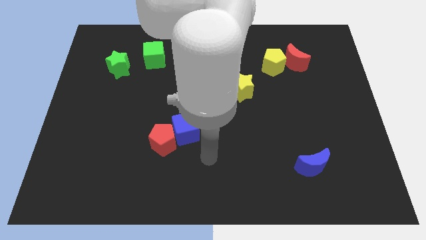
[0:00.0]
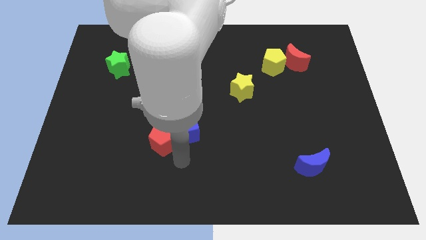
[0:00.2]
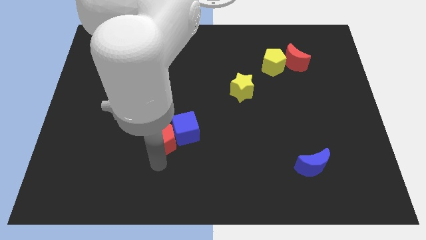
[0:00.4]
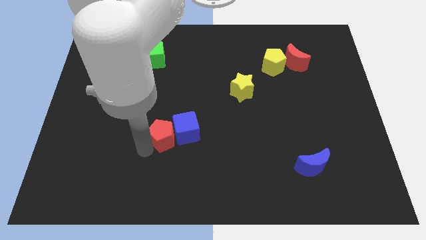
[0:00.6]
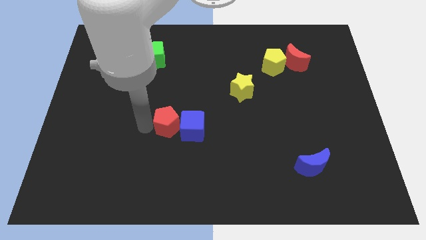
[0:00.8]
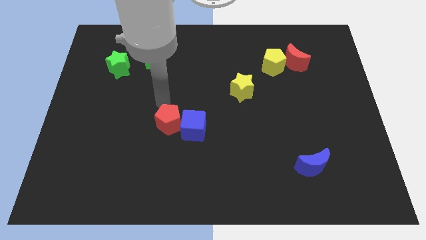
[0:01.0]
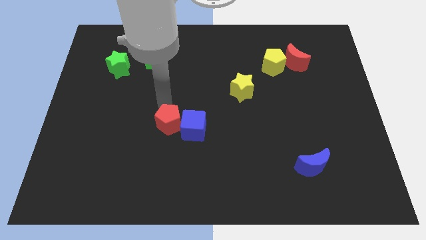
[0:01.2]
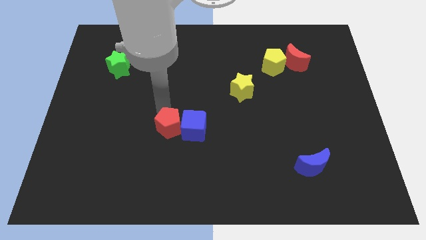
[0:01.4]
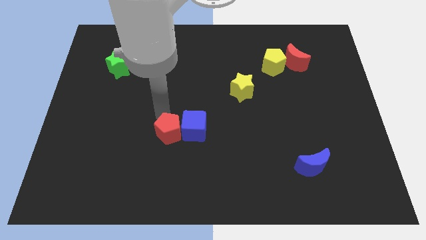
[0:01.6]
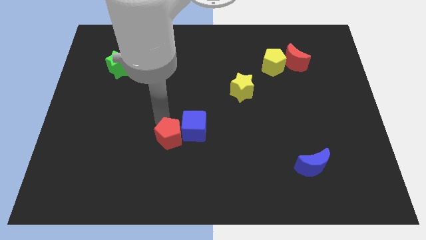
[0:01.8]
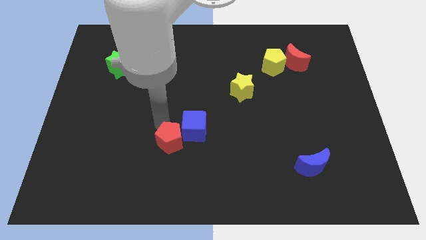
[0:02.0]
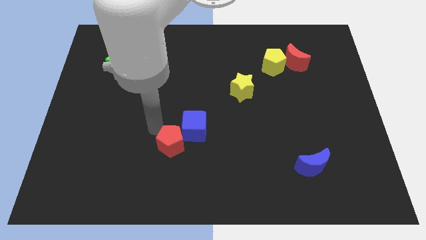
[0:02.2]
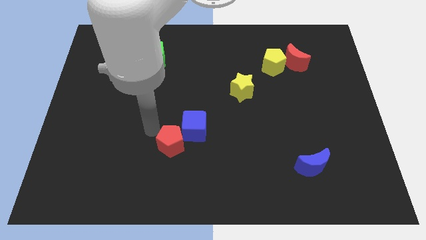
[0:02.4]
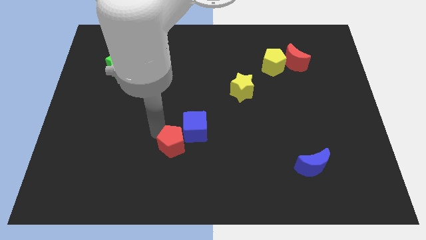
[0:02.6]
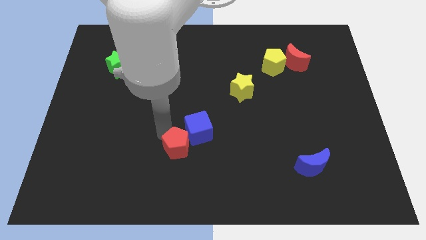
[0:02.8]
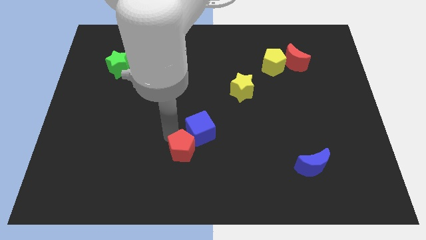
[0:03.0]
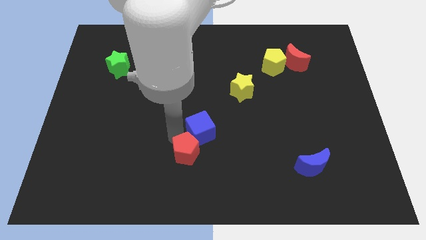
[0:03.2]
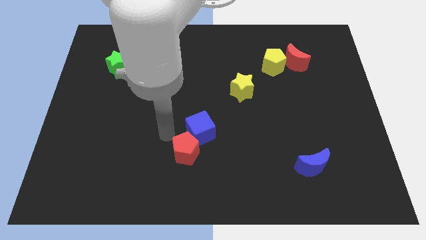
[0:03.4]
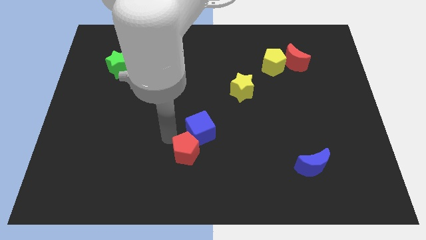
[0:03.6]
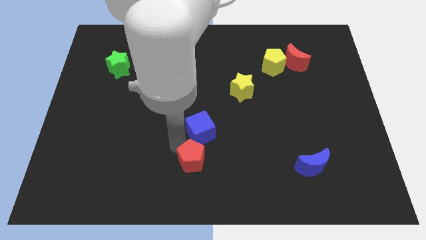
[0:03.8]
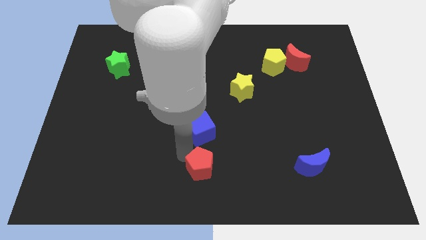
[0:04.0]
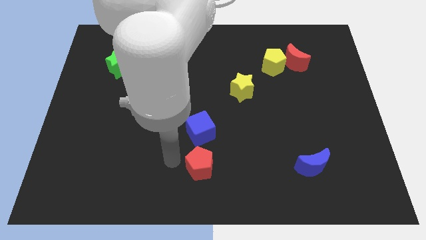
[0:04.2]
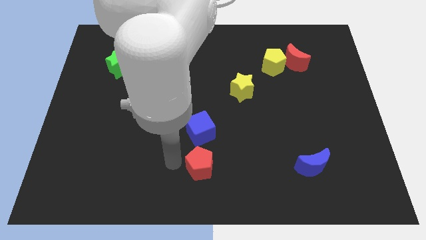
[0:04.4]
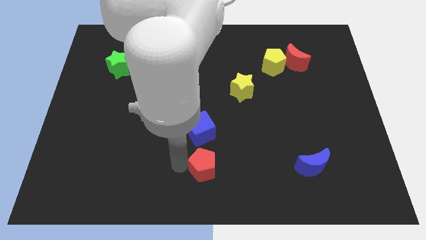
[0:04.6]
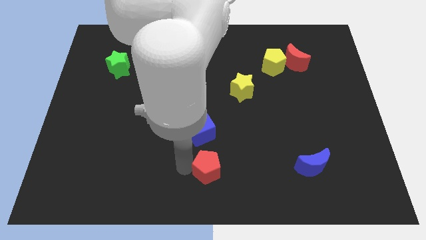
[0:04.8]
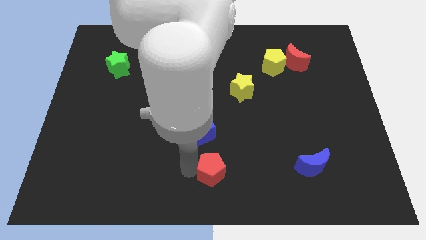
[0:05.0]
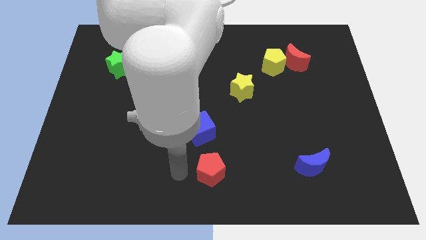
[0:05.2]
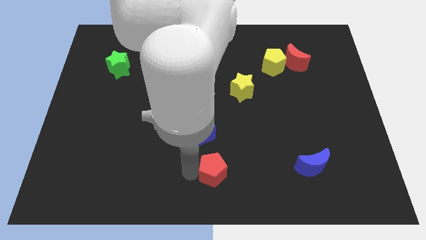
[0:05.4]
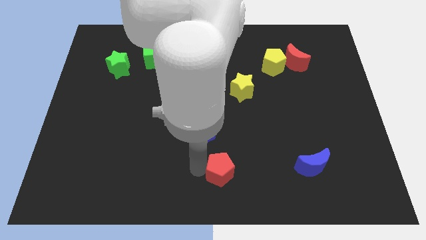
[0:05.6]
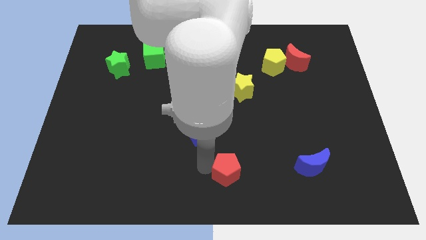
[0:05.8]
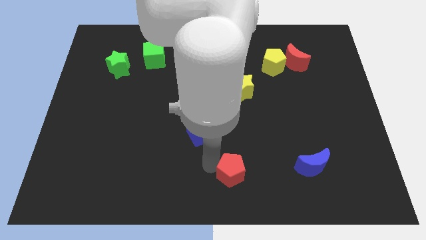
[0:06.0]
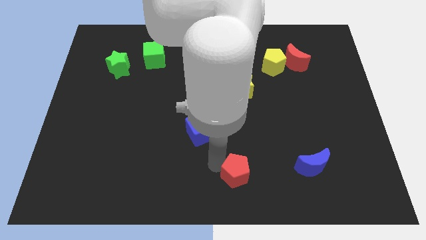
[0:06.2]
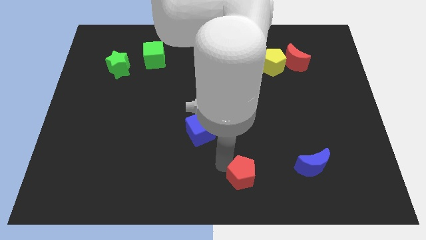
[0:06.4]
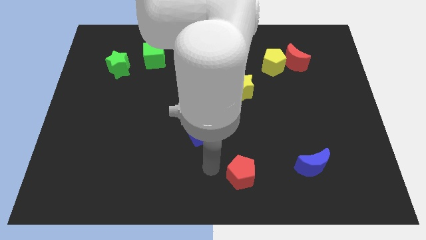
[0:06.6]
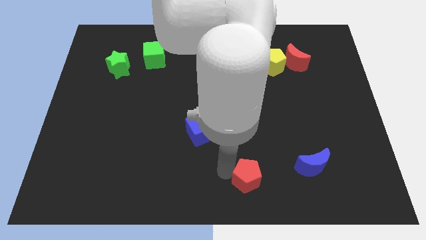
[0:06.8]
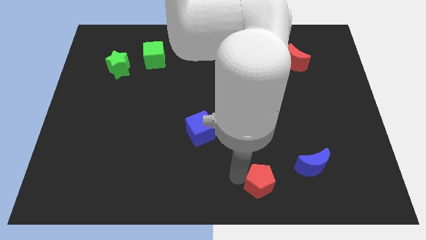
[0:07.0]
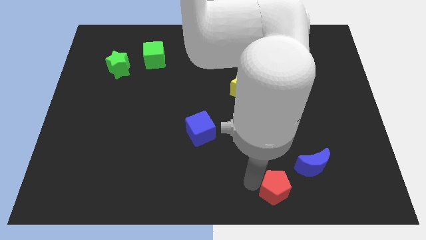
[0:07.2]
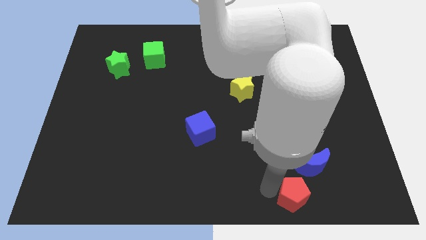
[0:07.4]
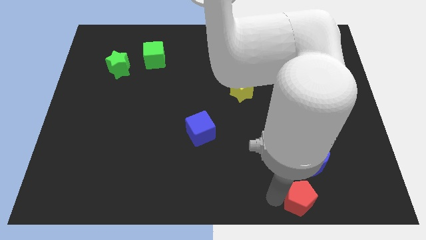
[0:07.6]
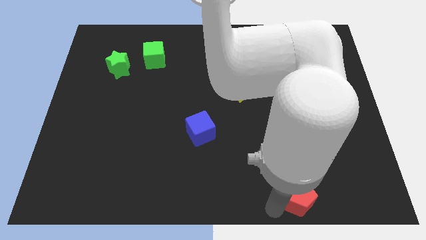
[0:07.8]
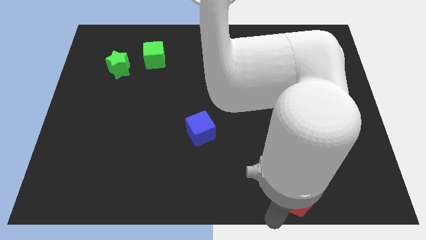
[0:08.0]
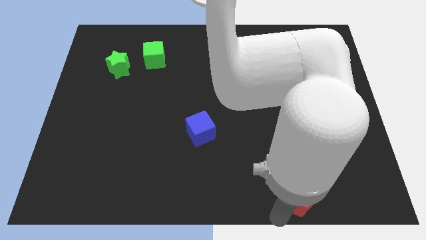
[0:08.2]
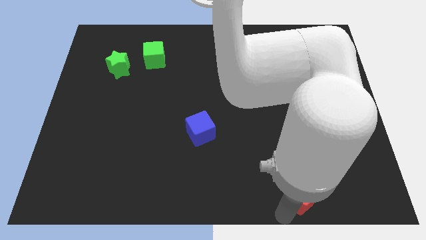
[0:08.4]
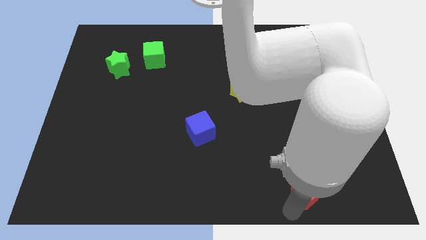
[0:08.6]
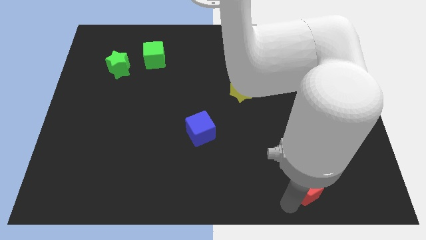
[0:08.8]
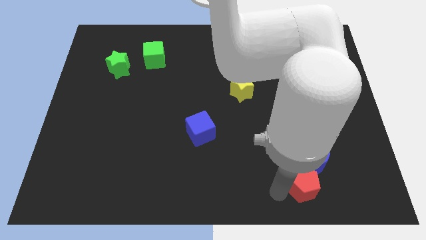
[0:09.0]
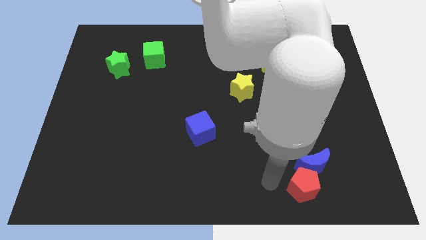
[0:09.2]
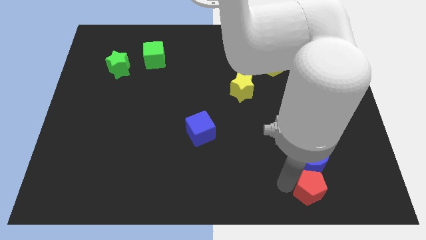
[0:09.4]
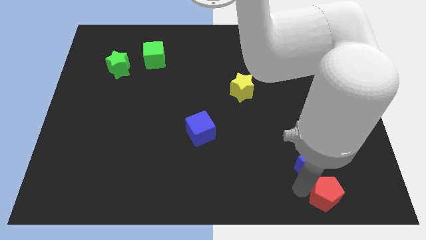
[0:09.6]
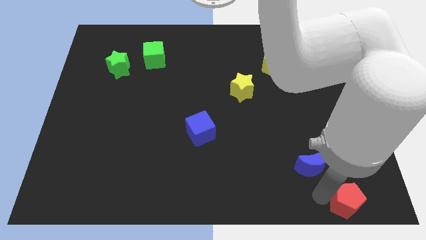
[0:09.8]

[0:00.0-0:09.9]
move the red pentagon to the bottom right of the board

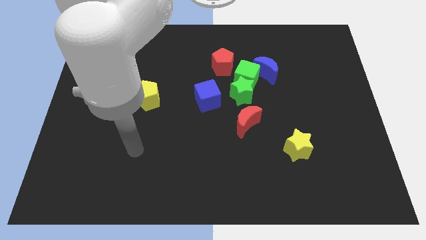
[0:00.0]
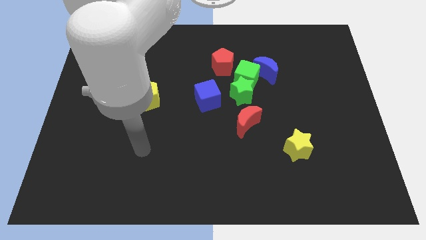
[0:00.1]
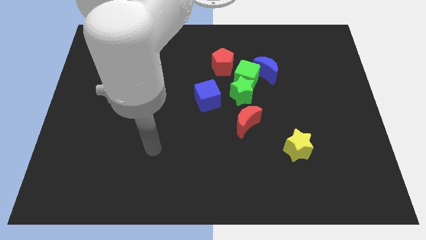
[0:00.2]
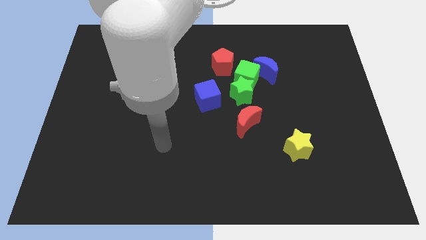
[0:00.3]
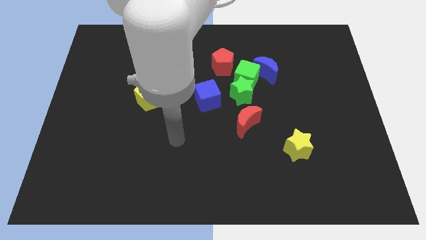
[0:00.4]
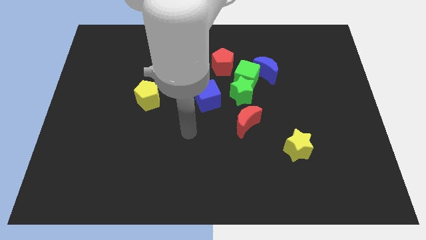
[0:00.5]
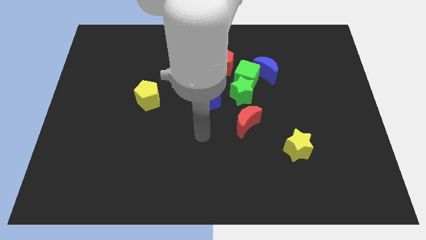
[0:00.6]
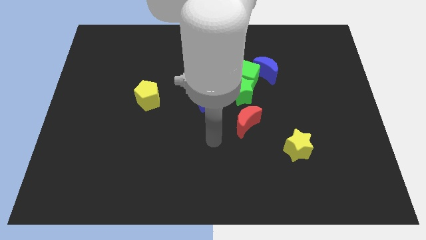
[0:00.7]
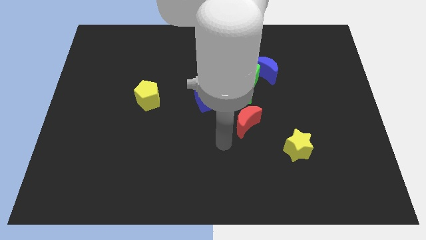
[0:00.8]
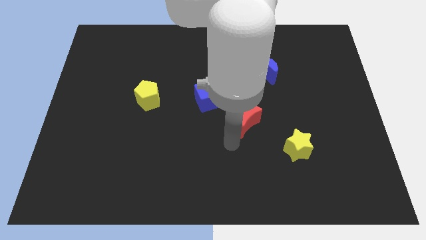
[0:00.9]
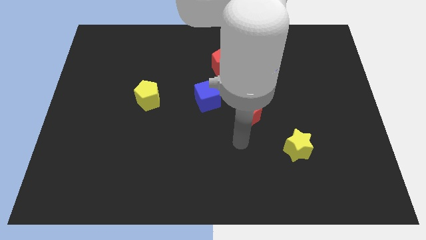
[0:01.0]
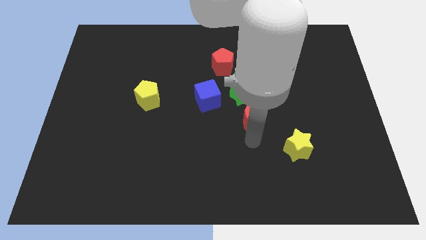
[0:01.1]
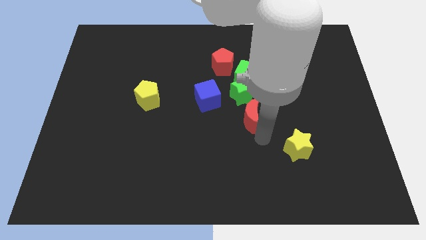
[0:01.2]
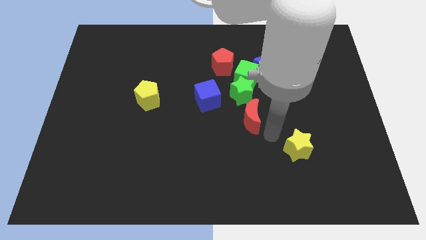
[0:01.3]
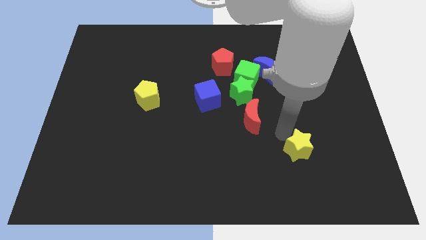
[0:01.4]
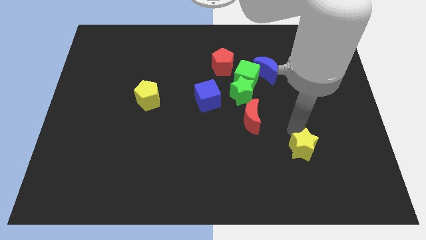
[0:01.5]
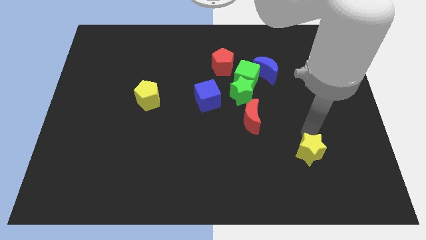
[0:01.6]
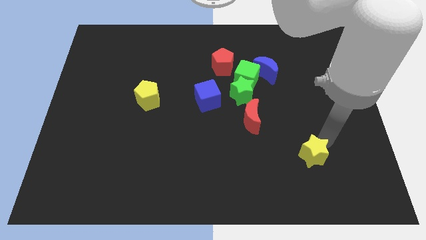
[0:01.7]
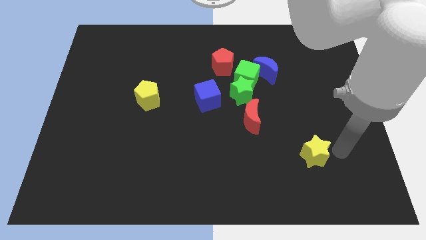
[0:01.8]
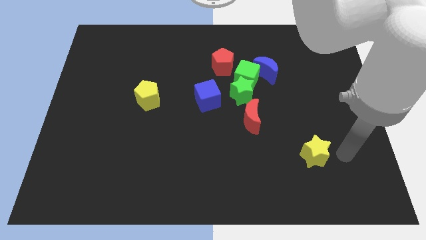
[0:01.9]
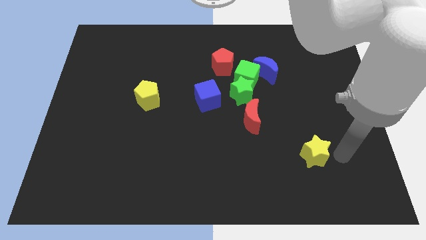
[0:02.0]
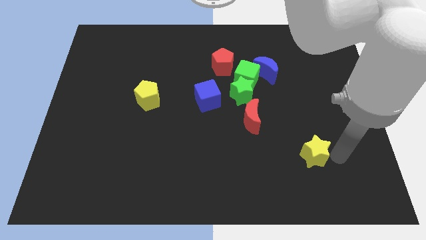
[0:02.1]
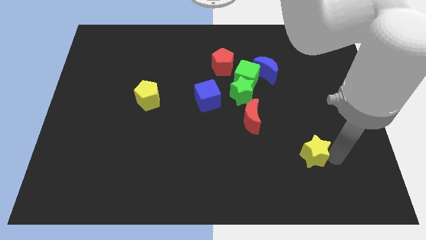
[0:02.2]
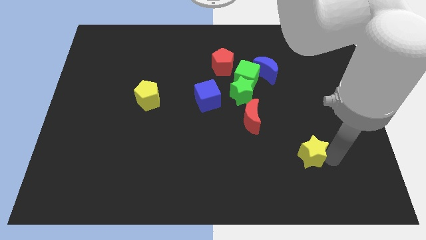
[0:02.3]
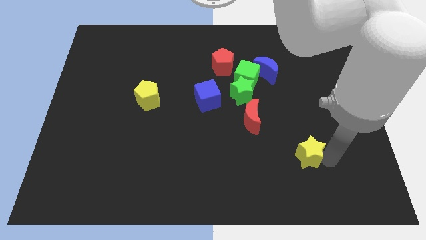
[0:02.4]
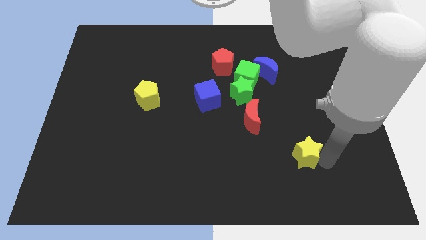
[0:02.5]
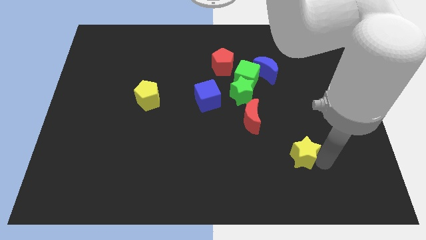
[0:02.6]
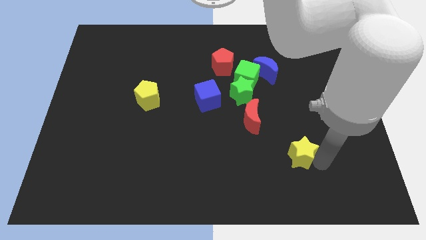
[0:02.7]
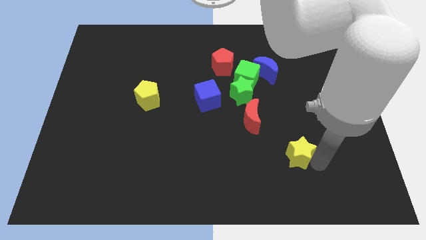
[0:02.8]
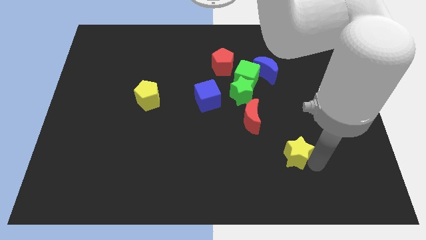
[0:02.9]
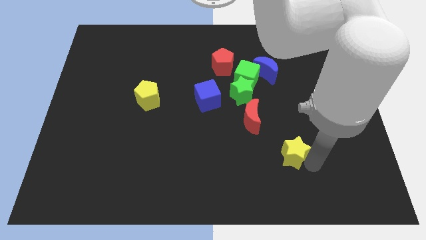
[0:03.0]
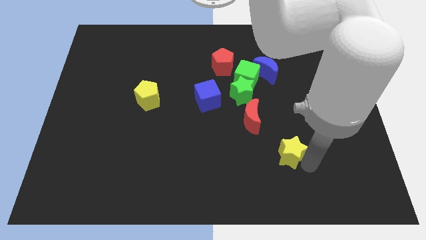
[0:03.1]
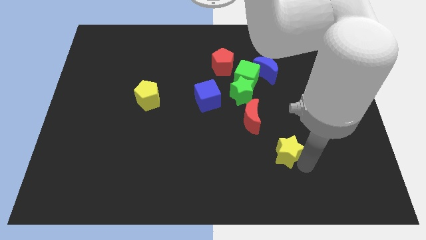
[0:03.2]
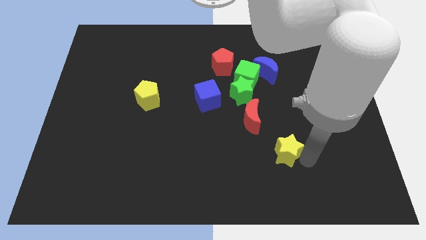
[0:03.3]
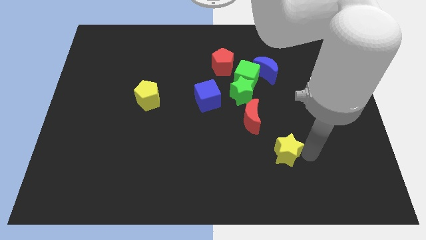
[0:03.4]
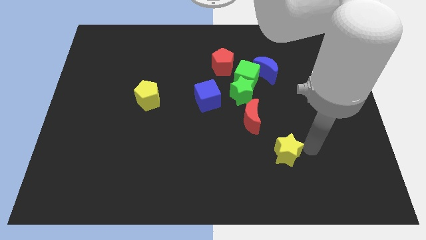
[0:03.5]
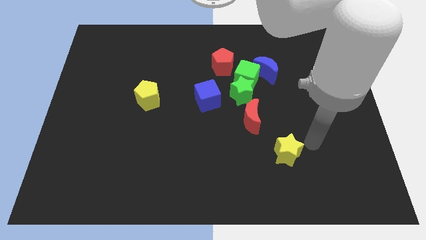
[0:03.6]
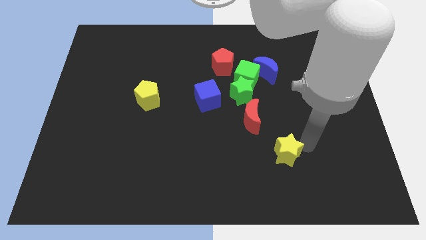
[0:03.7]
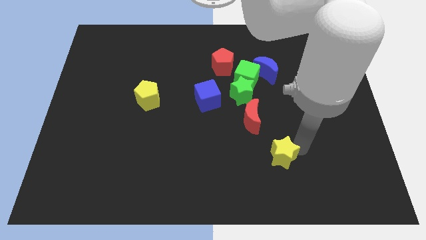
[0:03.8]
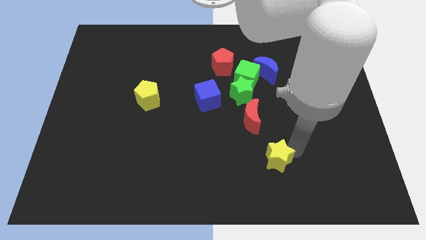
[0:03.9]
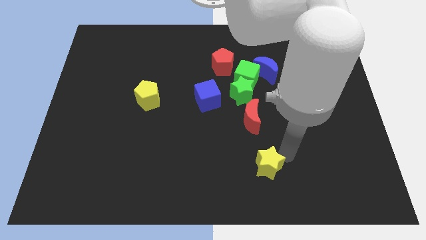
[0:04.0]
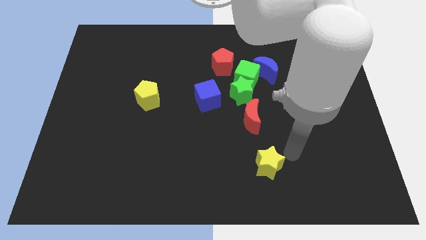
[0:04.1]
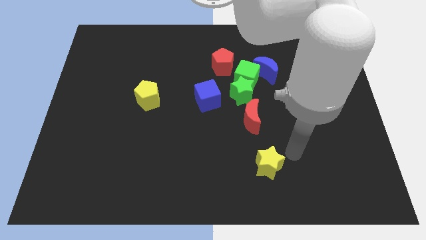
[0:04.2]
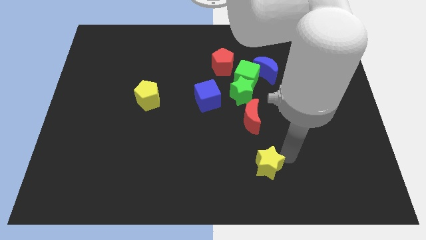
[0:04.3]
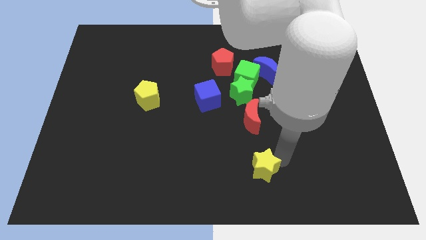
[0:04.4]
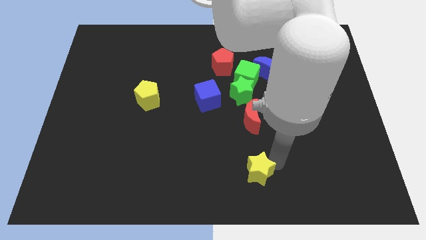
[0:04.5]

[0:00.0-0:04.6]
put the yellow star to the bottom
